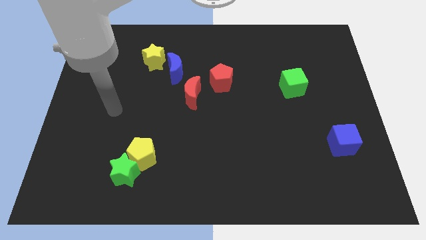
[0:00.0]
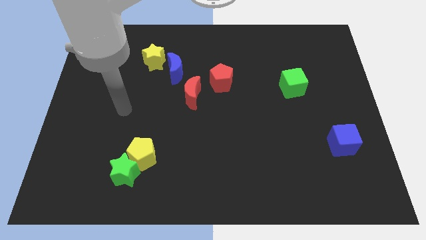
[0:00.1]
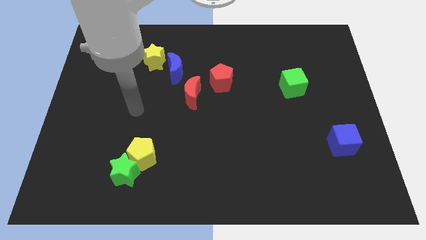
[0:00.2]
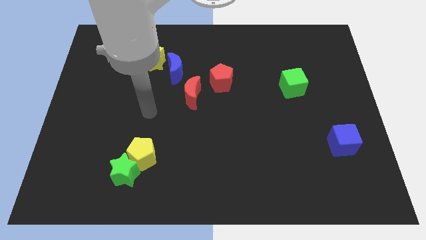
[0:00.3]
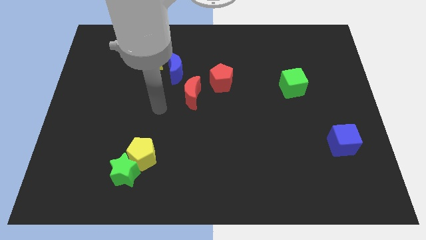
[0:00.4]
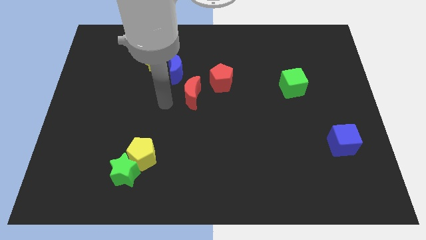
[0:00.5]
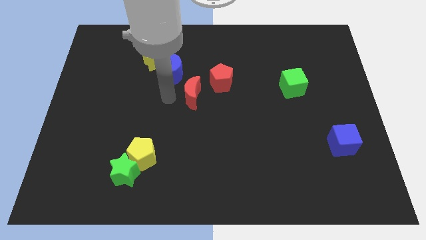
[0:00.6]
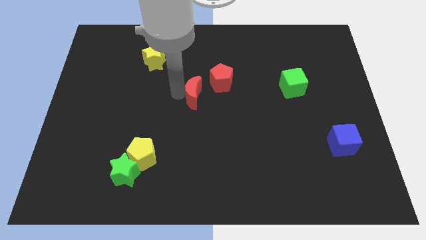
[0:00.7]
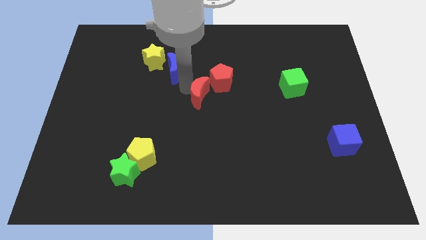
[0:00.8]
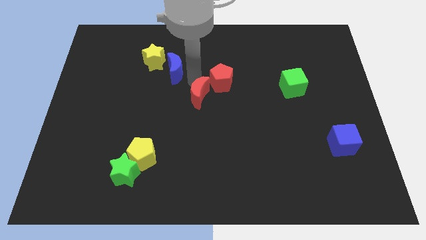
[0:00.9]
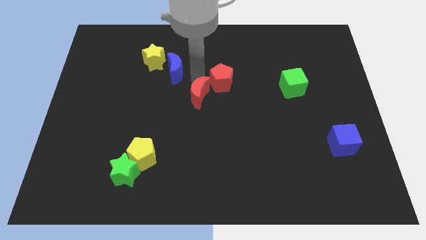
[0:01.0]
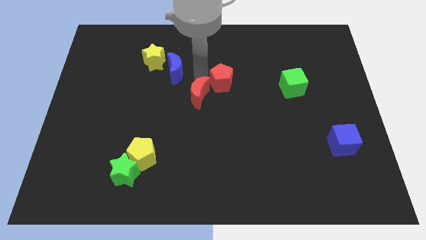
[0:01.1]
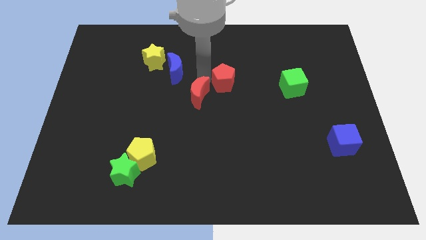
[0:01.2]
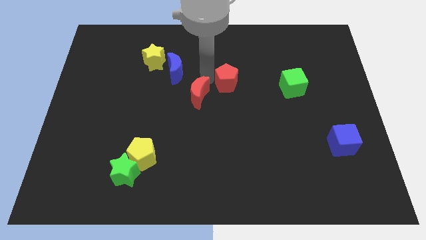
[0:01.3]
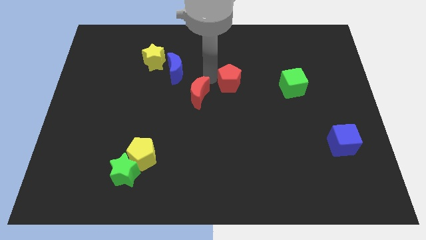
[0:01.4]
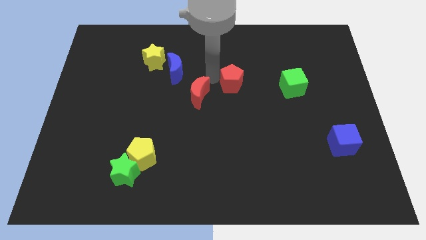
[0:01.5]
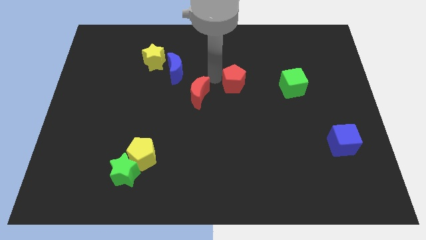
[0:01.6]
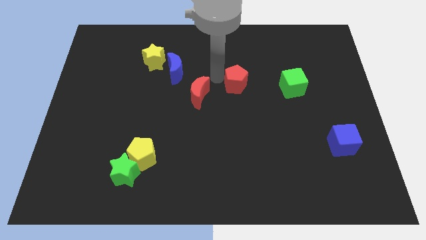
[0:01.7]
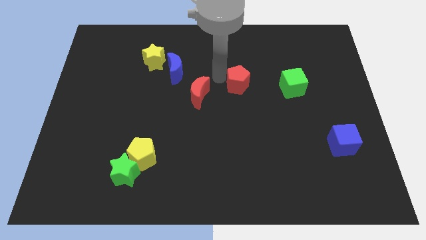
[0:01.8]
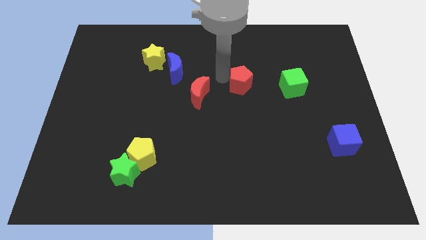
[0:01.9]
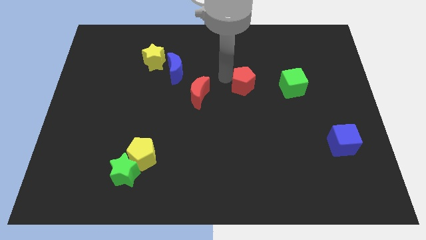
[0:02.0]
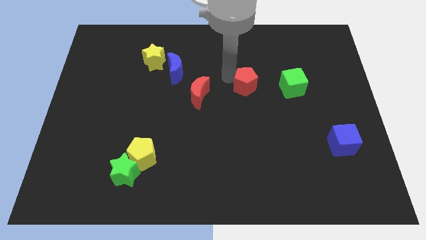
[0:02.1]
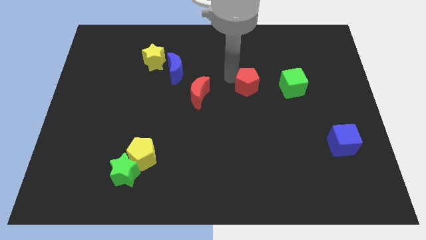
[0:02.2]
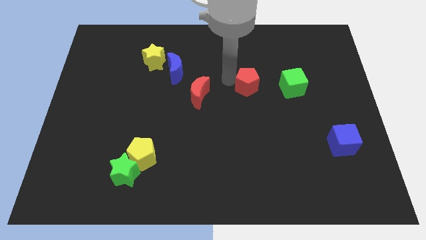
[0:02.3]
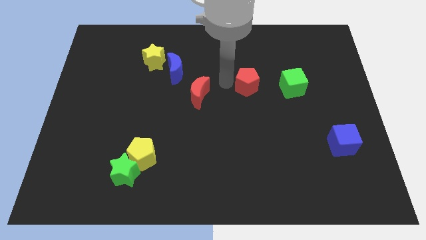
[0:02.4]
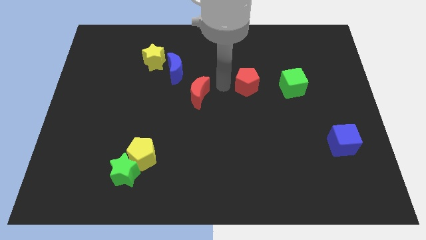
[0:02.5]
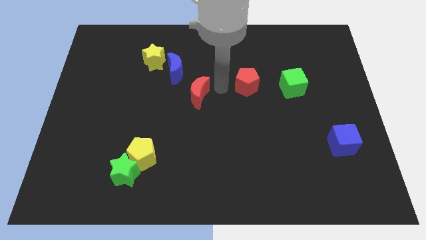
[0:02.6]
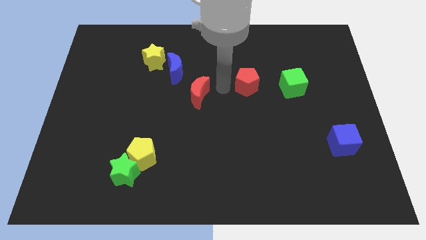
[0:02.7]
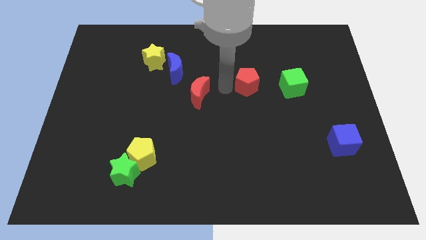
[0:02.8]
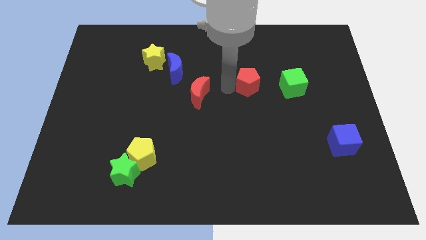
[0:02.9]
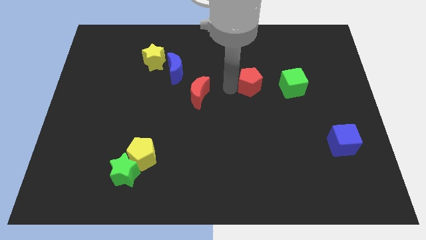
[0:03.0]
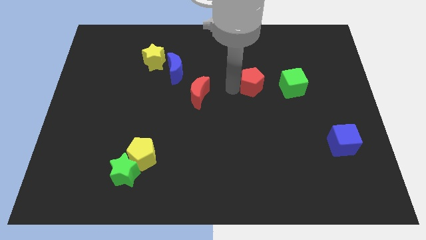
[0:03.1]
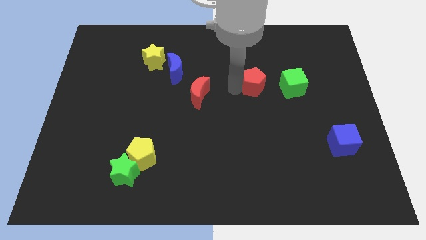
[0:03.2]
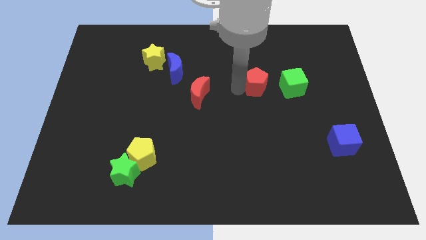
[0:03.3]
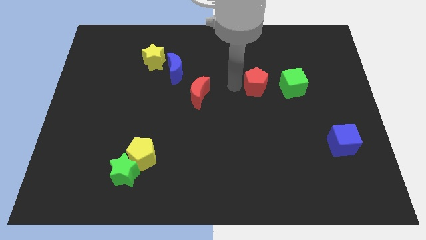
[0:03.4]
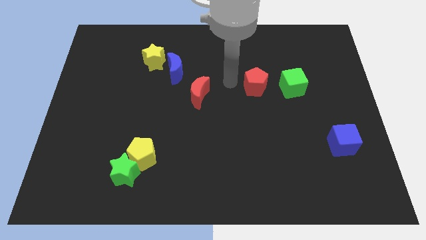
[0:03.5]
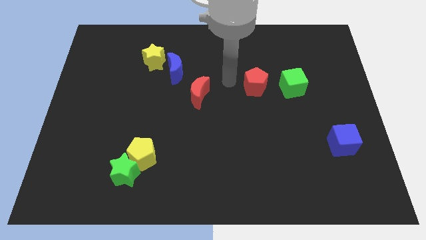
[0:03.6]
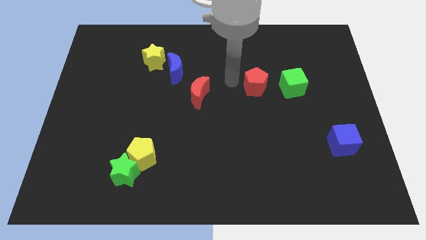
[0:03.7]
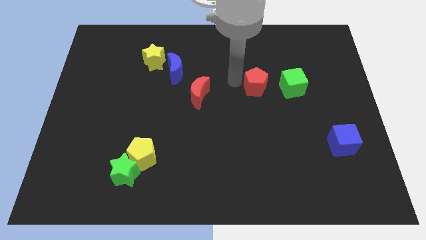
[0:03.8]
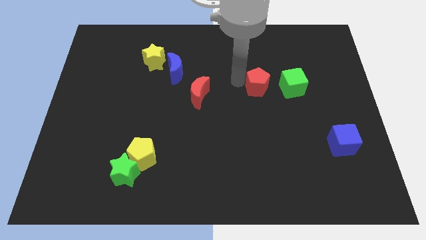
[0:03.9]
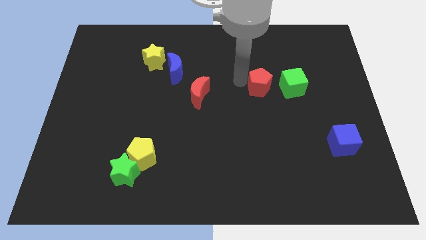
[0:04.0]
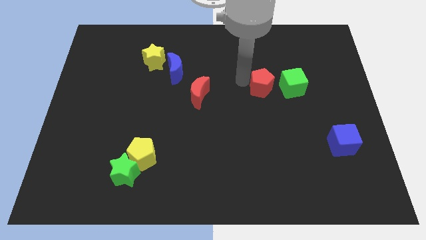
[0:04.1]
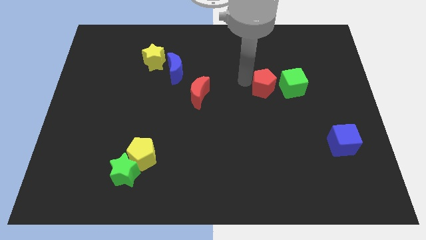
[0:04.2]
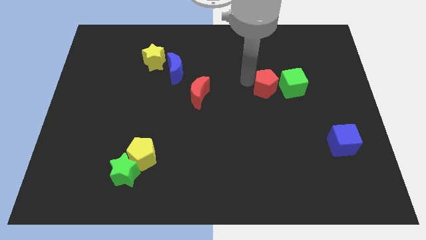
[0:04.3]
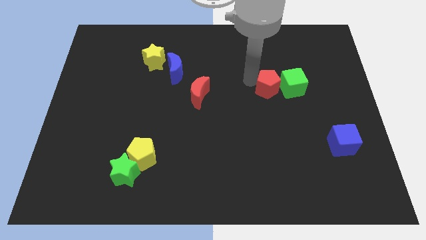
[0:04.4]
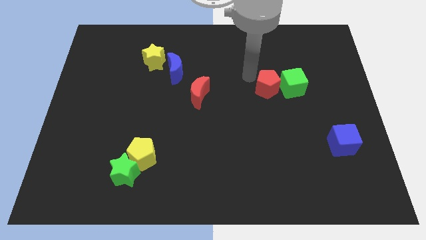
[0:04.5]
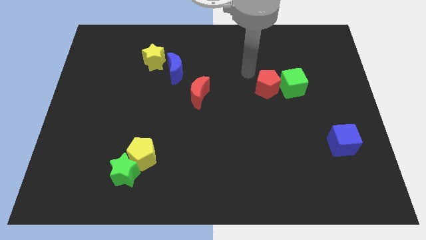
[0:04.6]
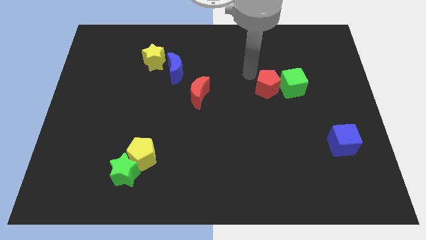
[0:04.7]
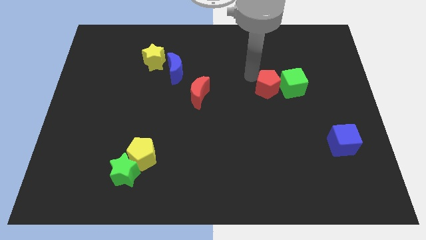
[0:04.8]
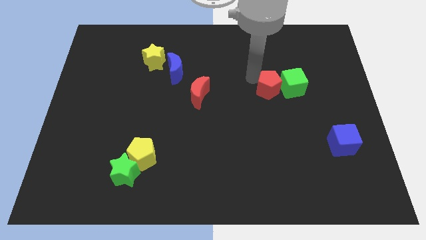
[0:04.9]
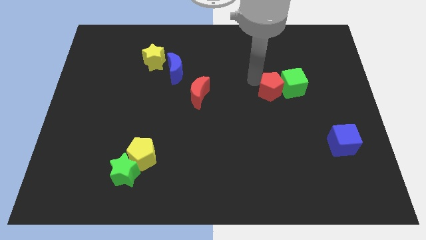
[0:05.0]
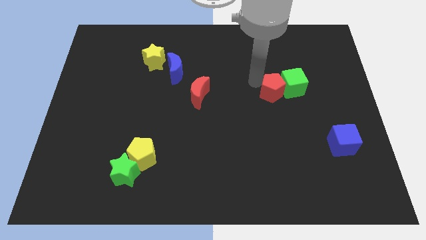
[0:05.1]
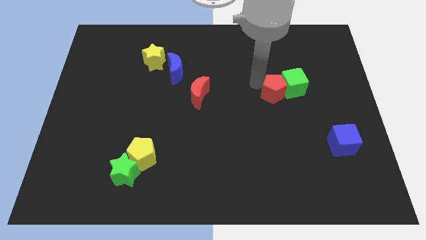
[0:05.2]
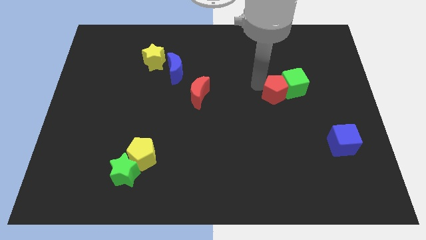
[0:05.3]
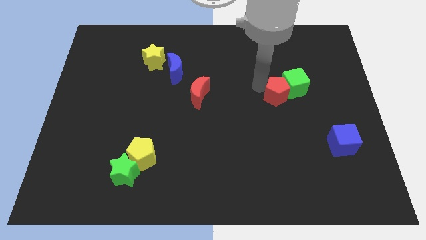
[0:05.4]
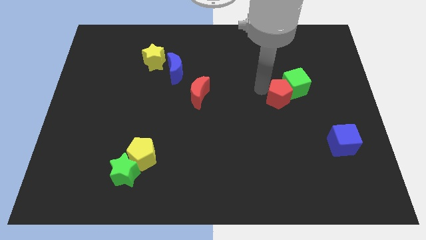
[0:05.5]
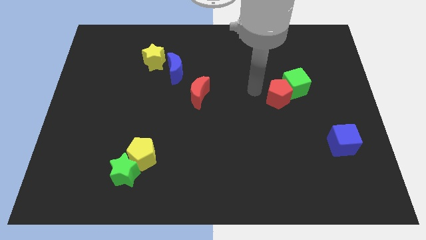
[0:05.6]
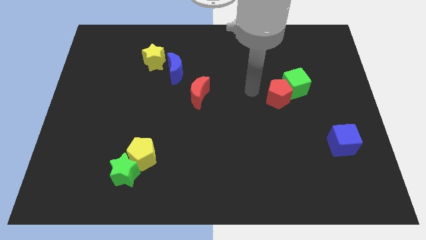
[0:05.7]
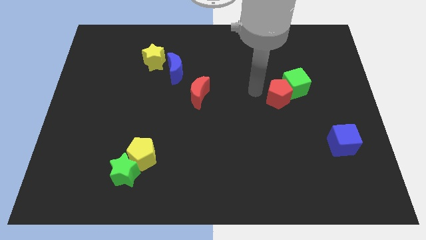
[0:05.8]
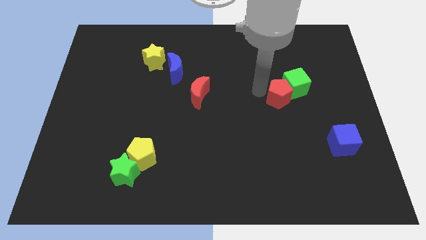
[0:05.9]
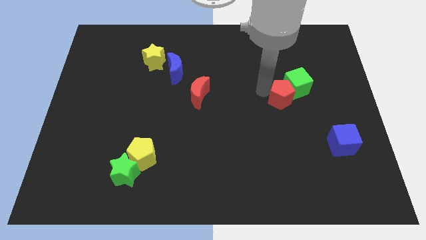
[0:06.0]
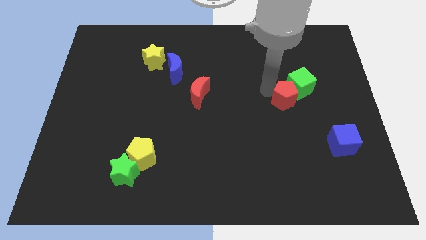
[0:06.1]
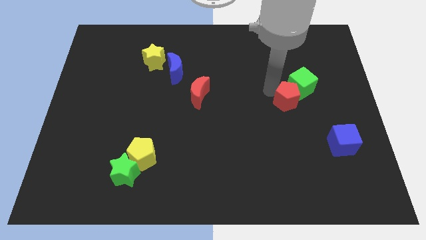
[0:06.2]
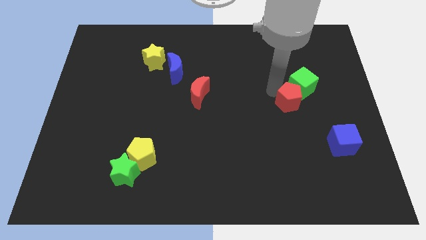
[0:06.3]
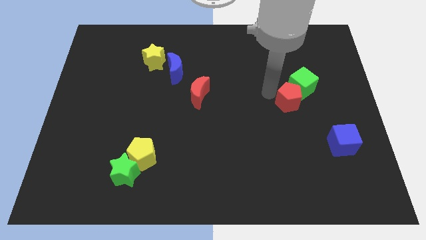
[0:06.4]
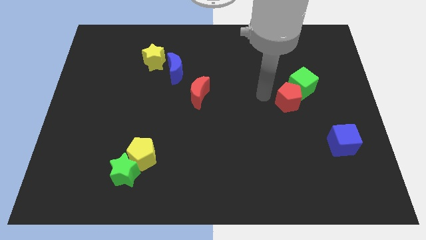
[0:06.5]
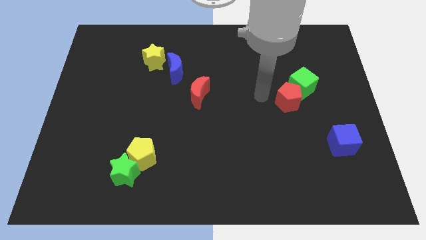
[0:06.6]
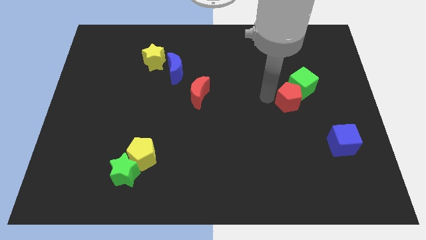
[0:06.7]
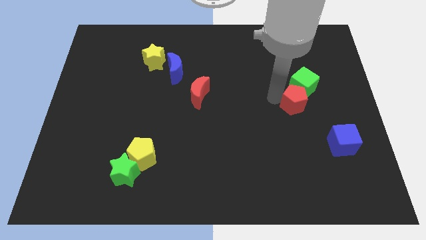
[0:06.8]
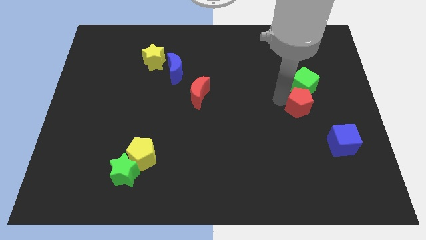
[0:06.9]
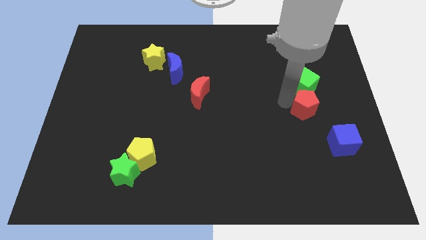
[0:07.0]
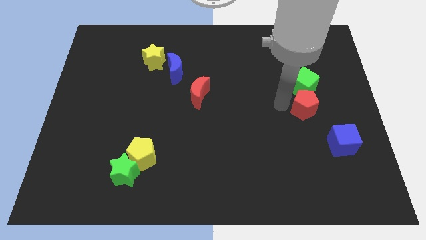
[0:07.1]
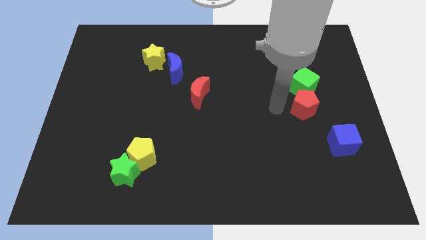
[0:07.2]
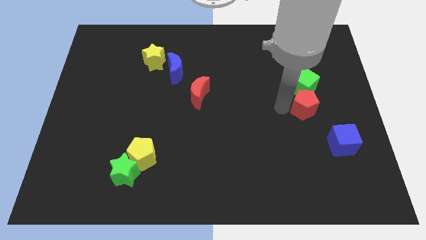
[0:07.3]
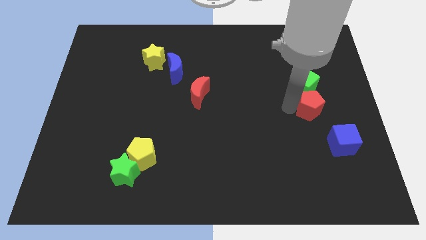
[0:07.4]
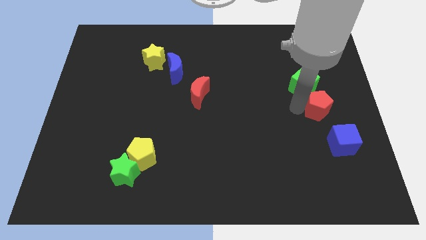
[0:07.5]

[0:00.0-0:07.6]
put the red pentagon to the top of the blue cube
